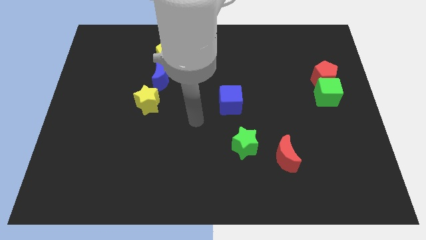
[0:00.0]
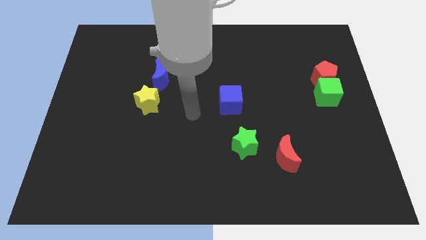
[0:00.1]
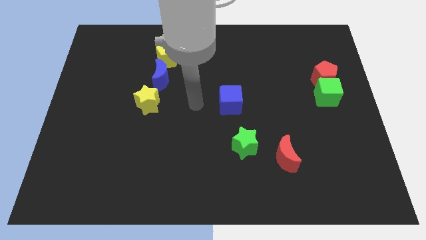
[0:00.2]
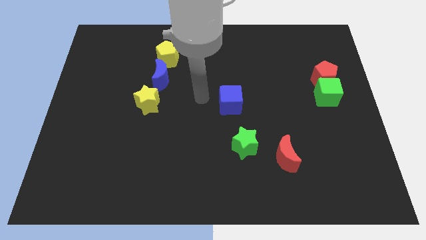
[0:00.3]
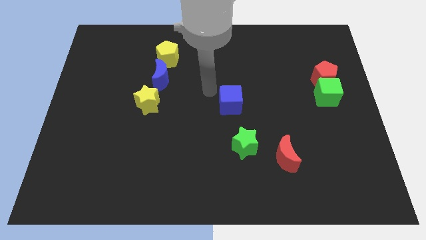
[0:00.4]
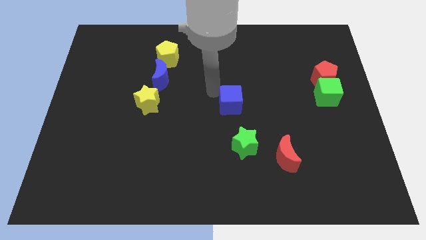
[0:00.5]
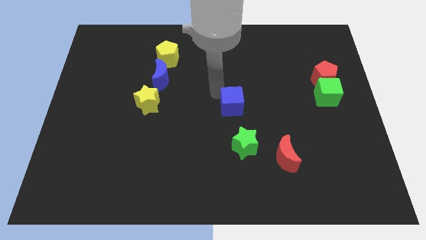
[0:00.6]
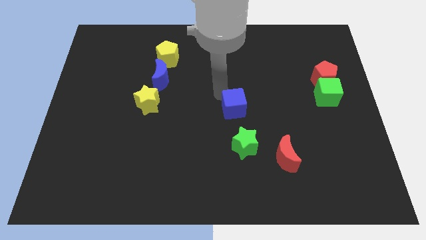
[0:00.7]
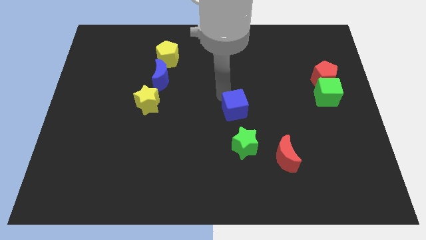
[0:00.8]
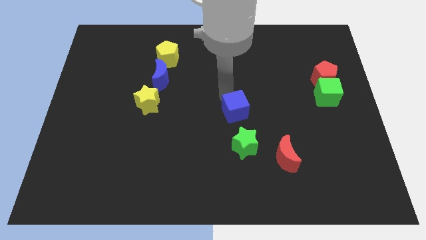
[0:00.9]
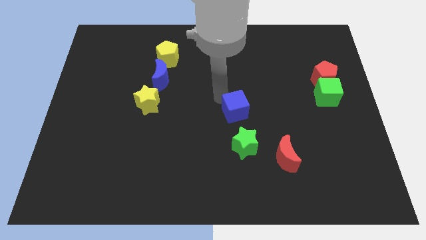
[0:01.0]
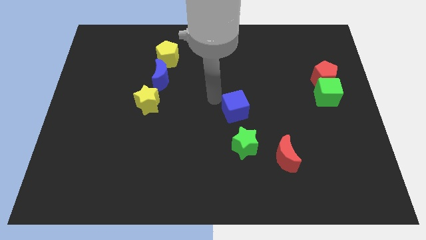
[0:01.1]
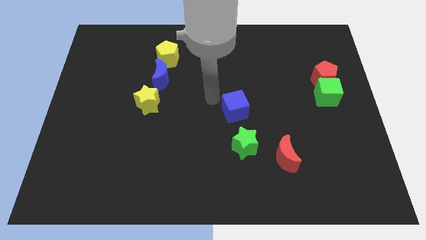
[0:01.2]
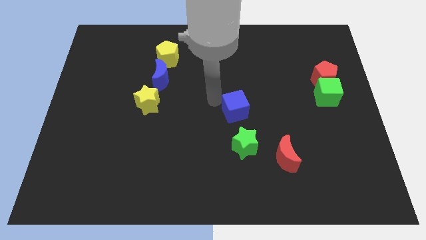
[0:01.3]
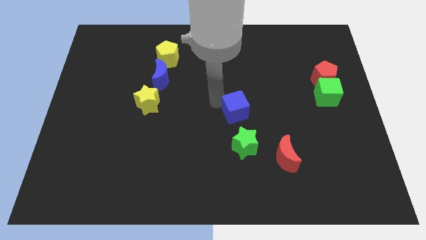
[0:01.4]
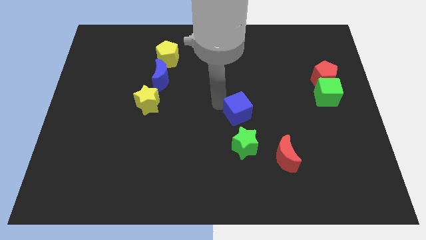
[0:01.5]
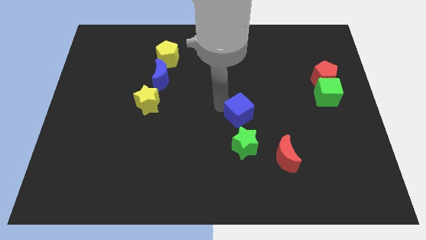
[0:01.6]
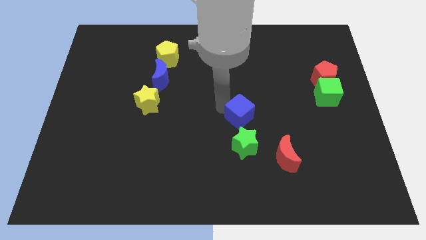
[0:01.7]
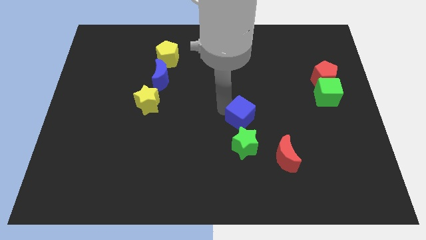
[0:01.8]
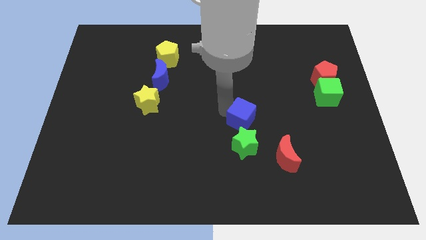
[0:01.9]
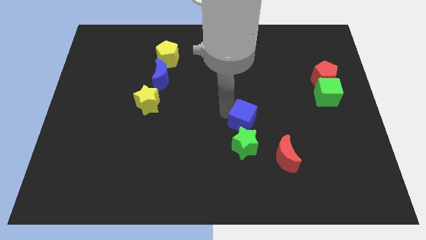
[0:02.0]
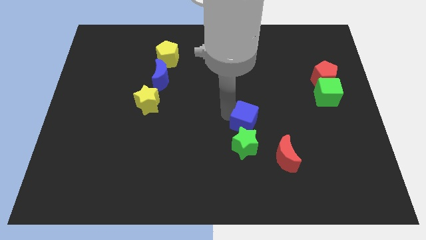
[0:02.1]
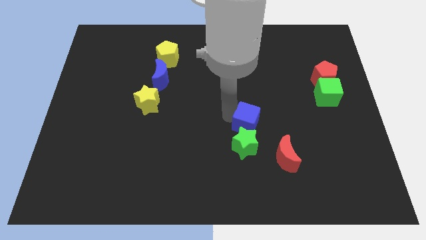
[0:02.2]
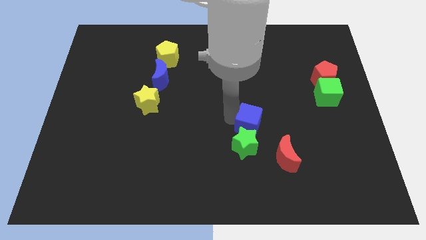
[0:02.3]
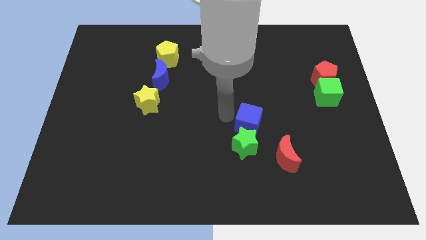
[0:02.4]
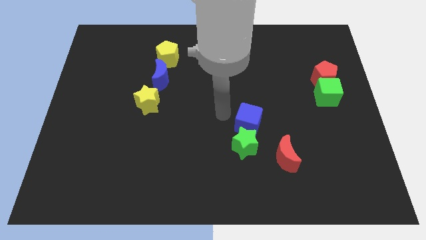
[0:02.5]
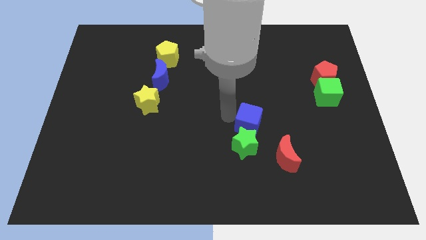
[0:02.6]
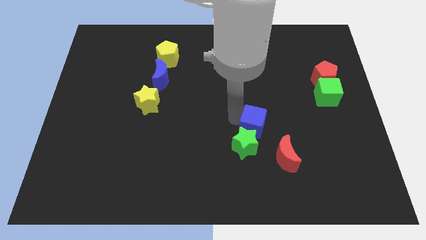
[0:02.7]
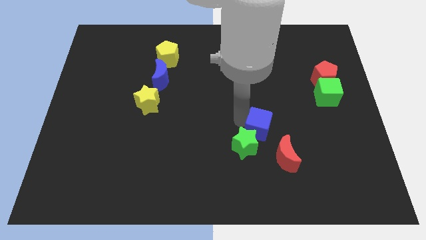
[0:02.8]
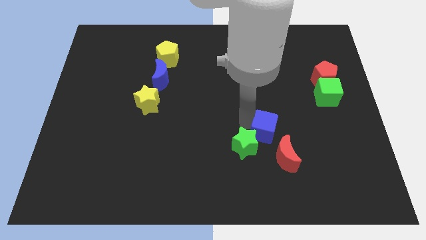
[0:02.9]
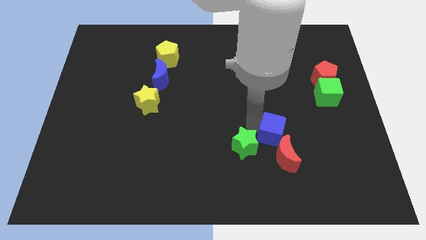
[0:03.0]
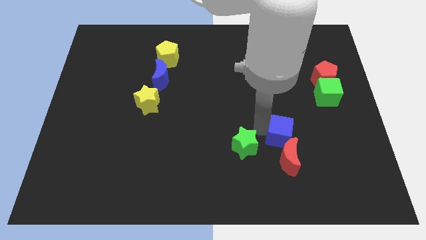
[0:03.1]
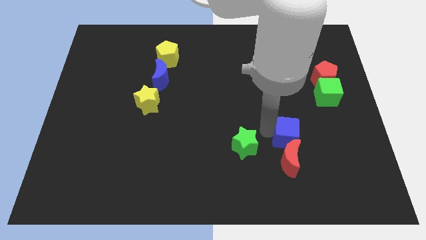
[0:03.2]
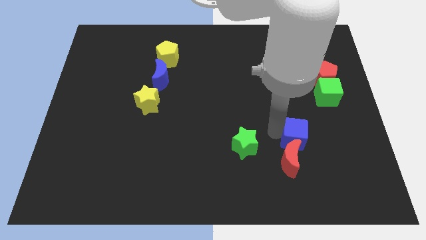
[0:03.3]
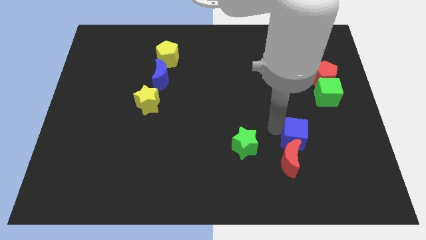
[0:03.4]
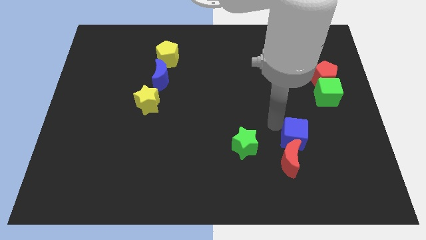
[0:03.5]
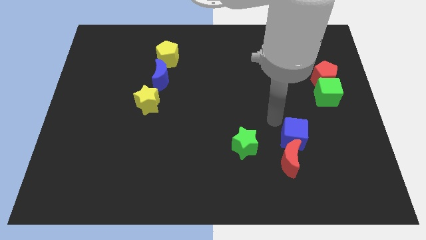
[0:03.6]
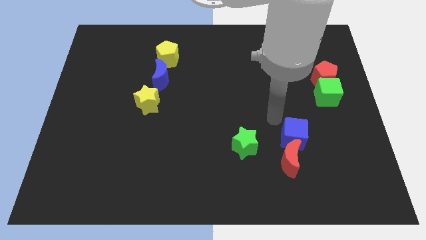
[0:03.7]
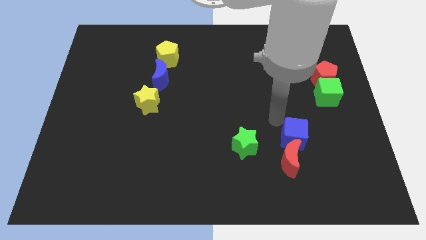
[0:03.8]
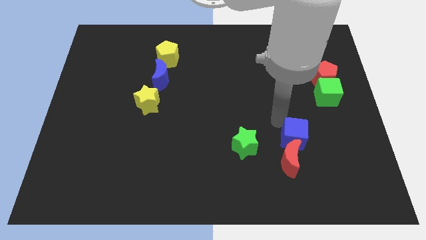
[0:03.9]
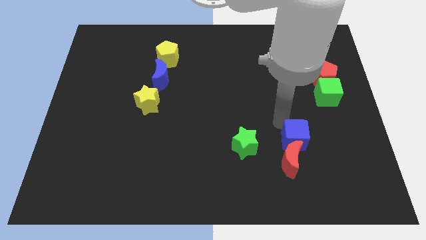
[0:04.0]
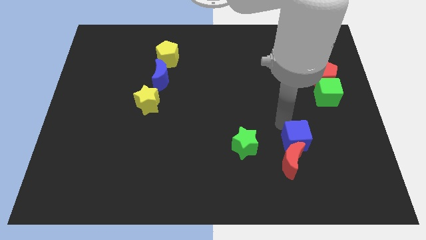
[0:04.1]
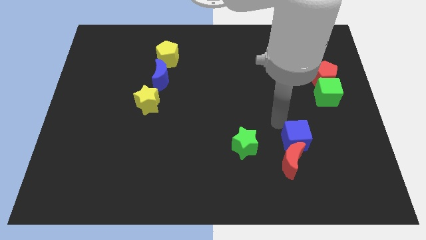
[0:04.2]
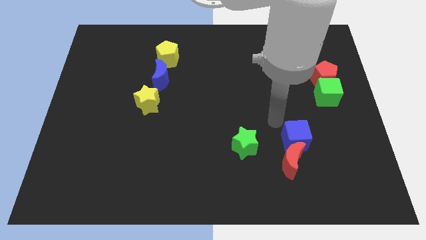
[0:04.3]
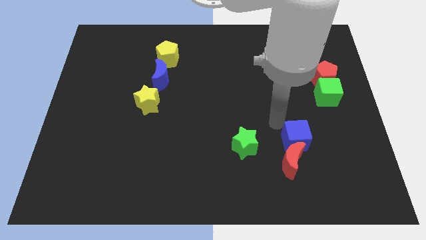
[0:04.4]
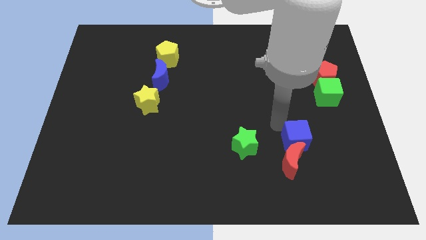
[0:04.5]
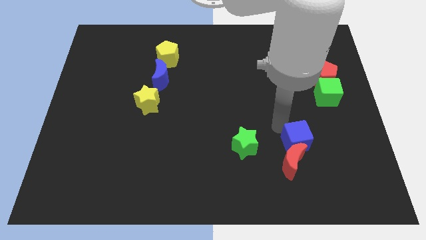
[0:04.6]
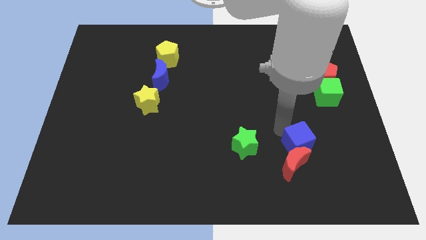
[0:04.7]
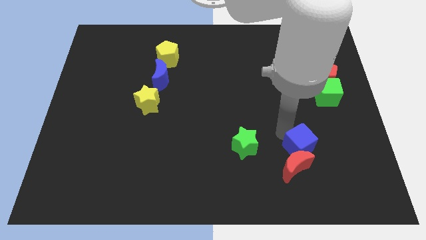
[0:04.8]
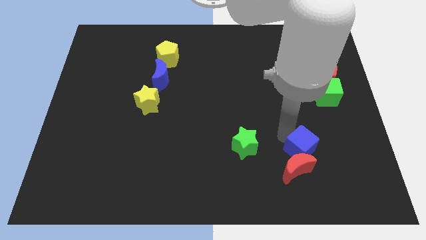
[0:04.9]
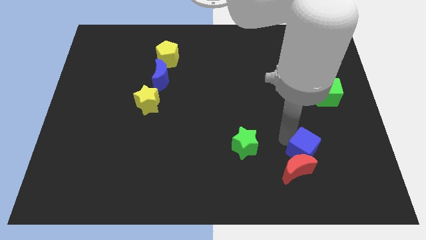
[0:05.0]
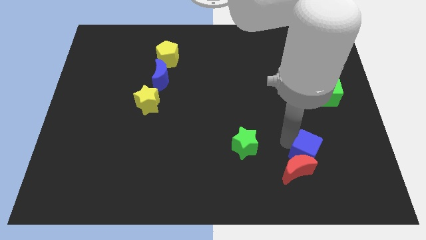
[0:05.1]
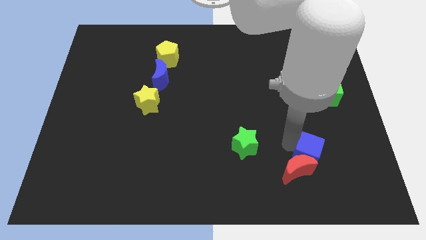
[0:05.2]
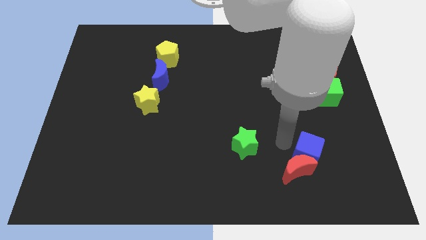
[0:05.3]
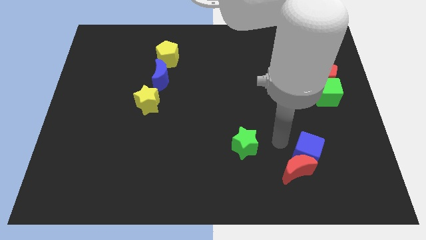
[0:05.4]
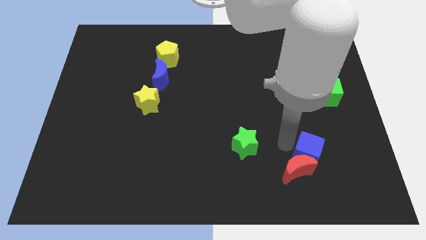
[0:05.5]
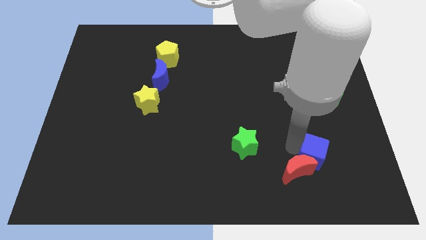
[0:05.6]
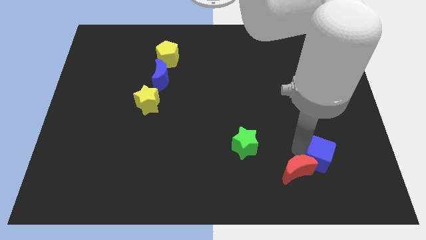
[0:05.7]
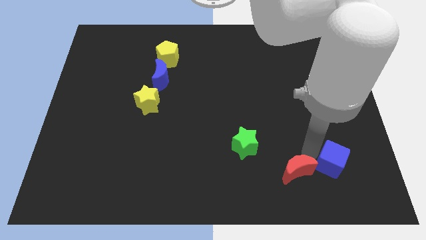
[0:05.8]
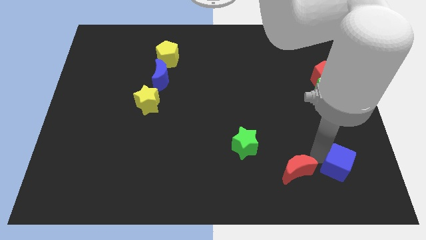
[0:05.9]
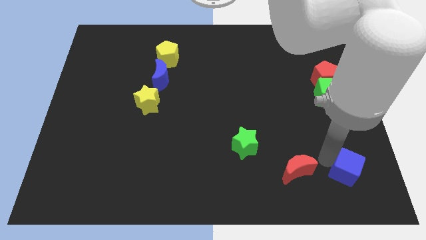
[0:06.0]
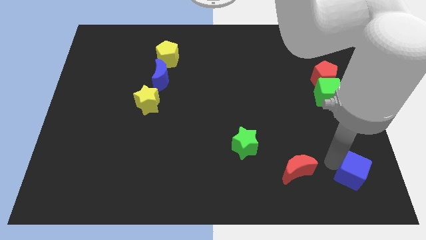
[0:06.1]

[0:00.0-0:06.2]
put the blue cube to the bottom right corner
